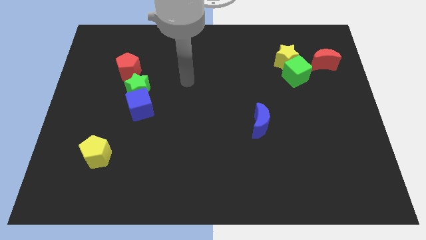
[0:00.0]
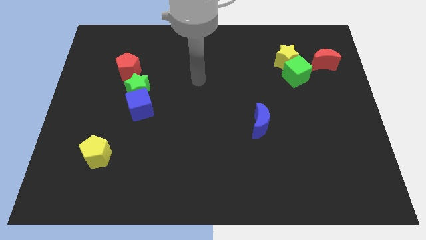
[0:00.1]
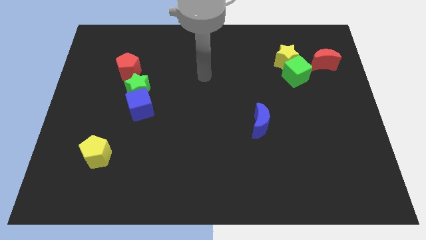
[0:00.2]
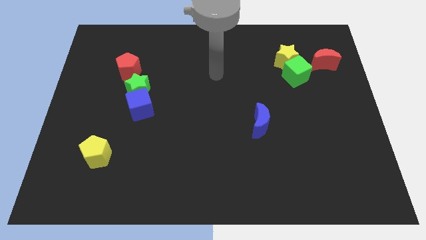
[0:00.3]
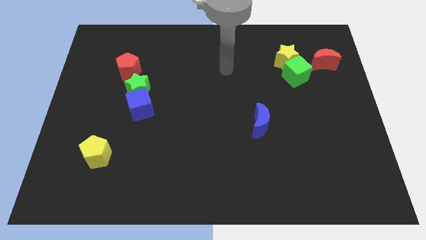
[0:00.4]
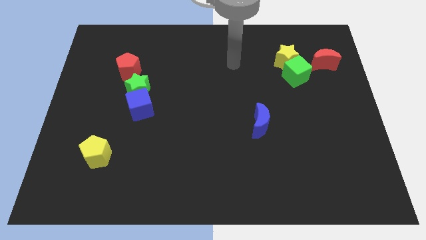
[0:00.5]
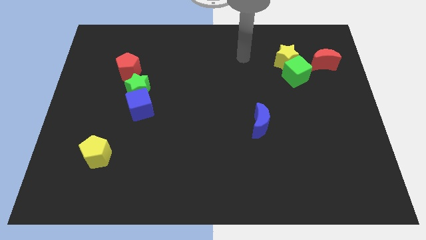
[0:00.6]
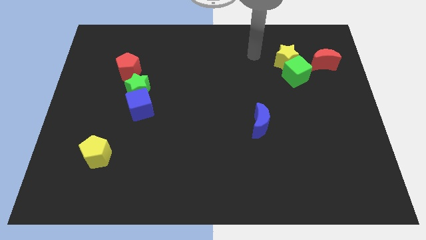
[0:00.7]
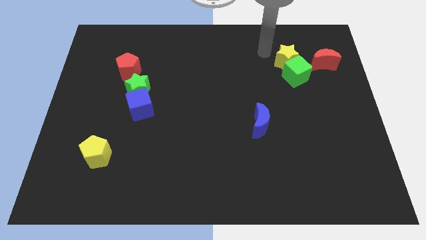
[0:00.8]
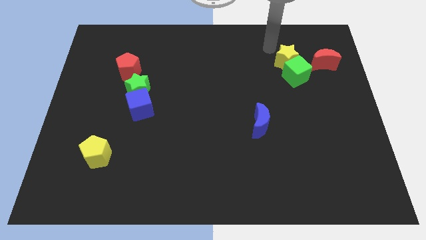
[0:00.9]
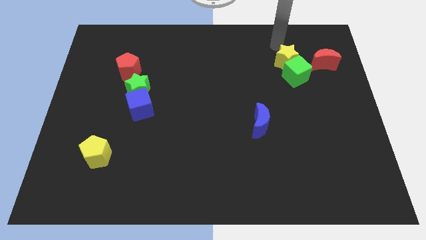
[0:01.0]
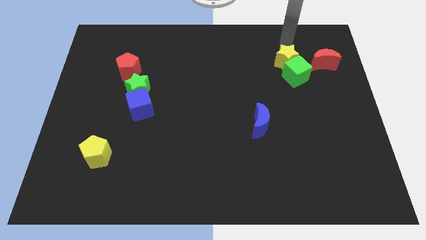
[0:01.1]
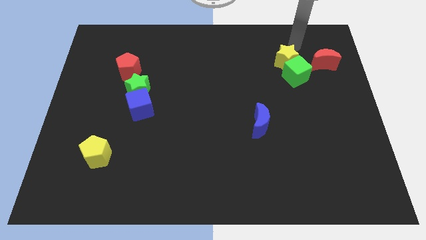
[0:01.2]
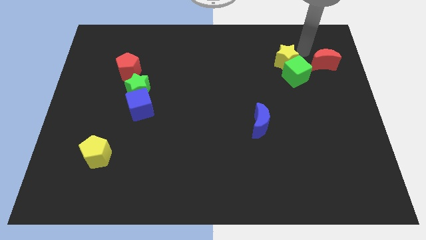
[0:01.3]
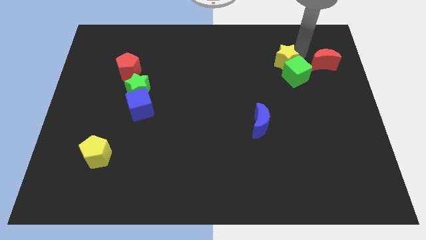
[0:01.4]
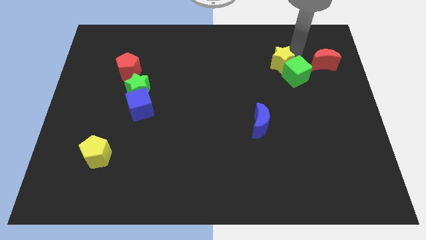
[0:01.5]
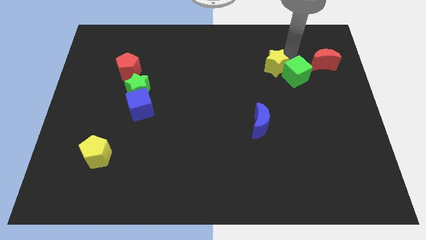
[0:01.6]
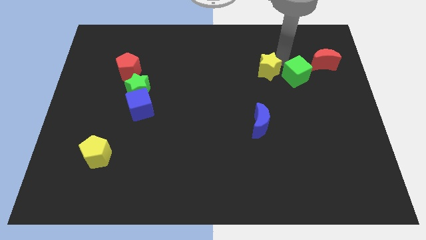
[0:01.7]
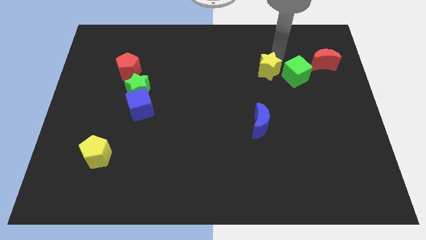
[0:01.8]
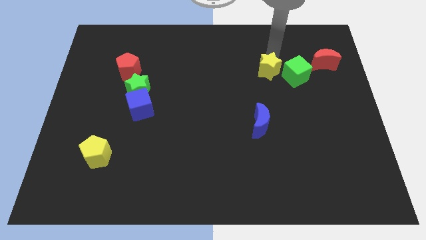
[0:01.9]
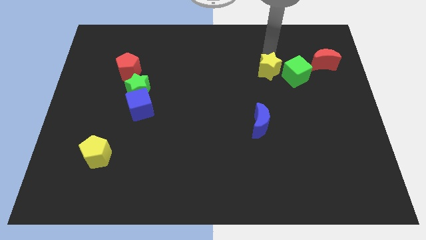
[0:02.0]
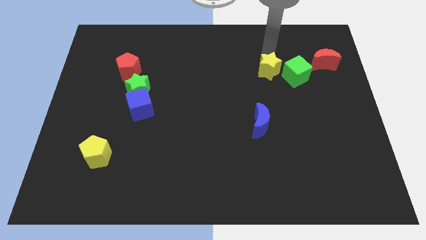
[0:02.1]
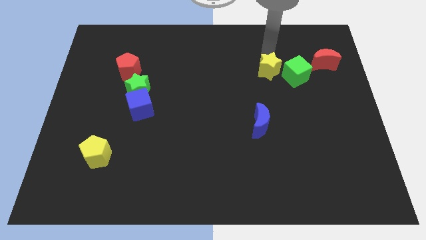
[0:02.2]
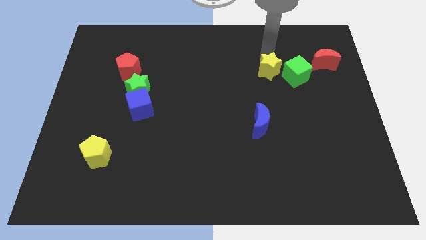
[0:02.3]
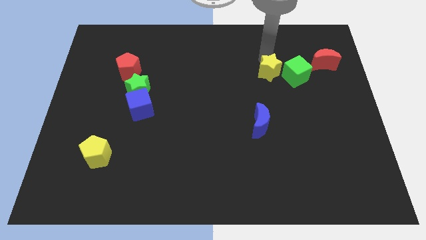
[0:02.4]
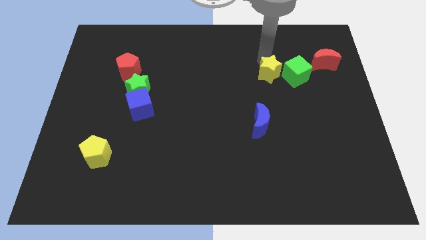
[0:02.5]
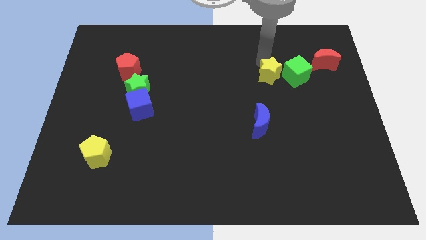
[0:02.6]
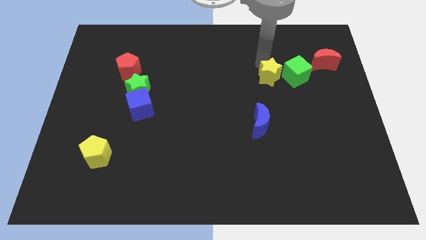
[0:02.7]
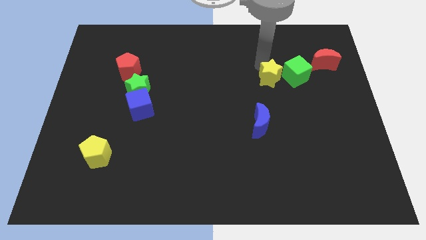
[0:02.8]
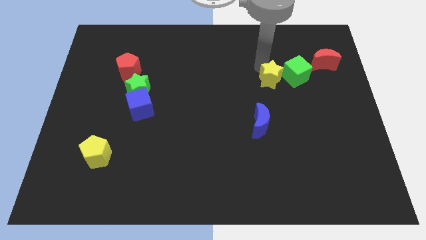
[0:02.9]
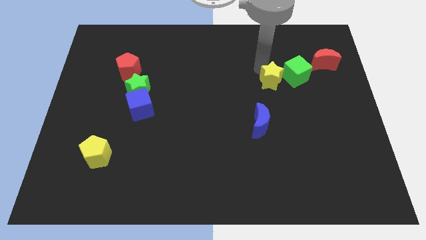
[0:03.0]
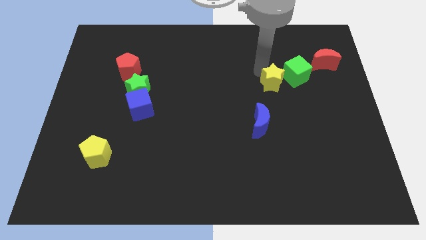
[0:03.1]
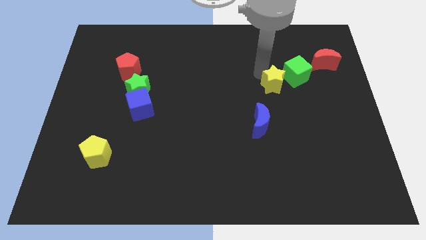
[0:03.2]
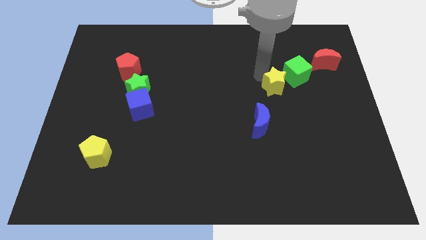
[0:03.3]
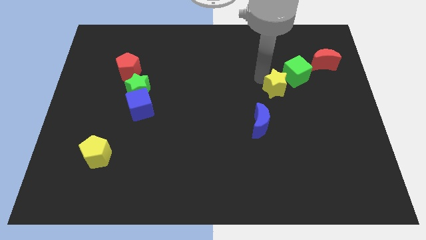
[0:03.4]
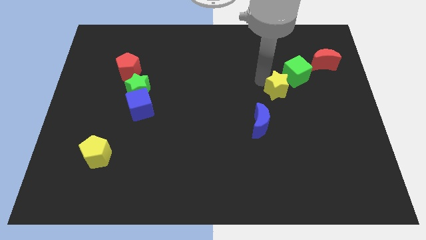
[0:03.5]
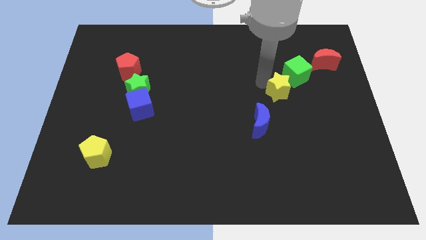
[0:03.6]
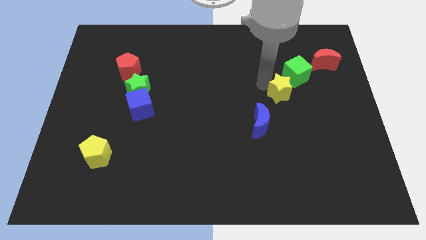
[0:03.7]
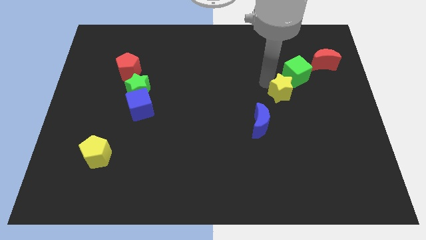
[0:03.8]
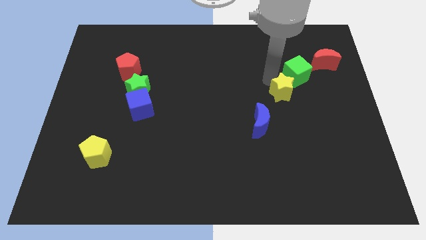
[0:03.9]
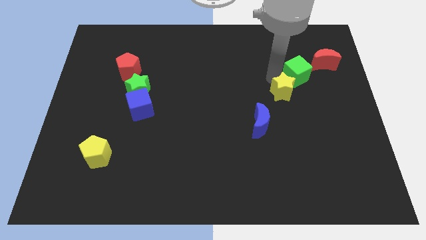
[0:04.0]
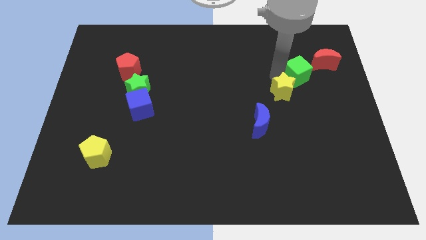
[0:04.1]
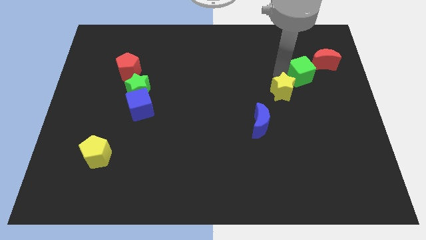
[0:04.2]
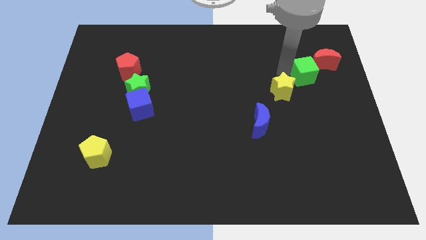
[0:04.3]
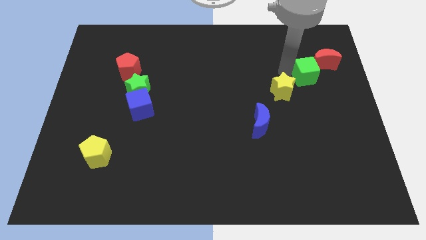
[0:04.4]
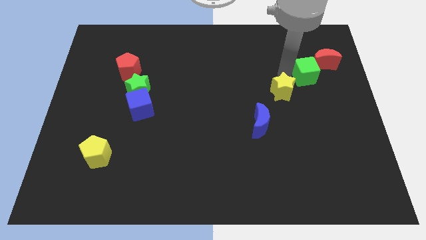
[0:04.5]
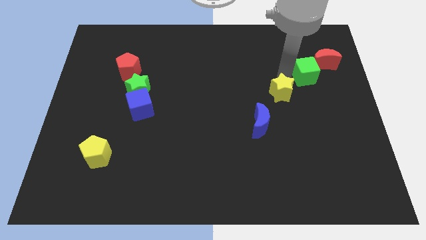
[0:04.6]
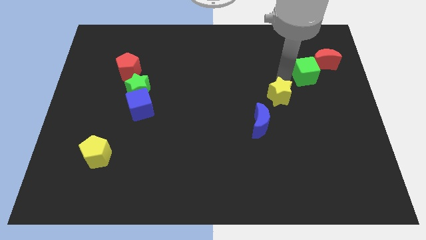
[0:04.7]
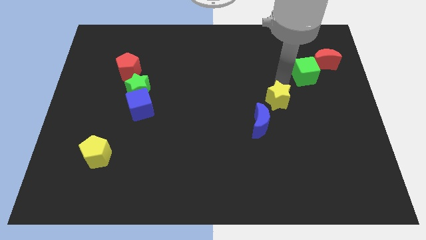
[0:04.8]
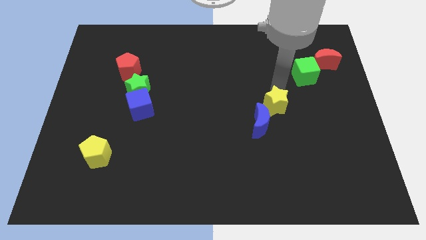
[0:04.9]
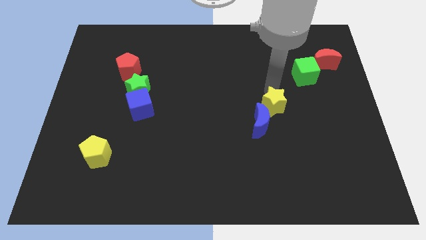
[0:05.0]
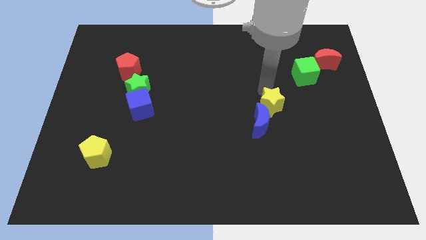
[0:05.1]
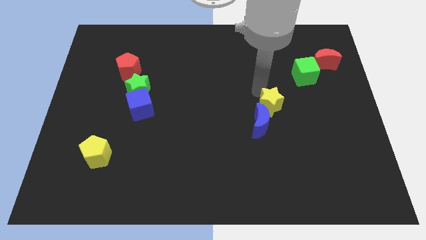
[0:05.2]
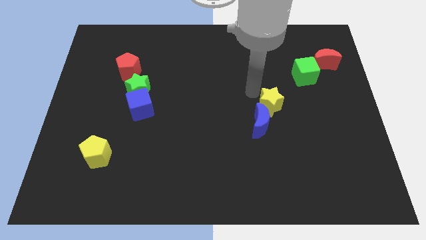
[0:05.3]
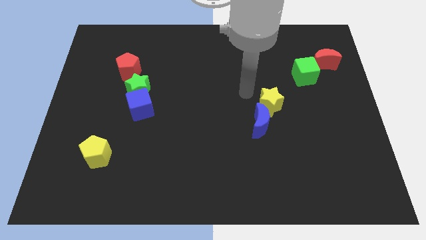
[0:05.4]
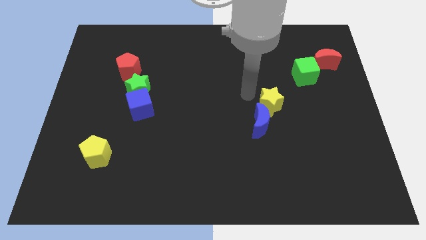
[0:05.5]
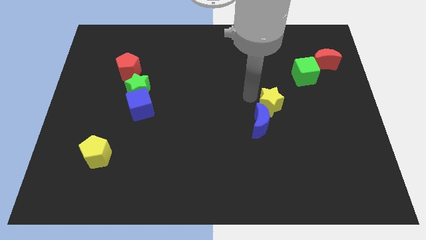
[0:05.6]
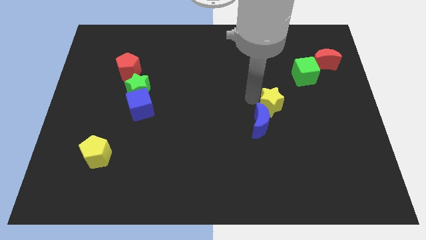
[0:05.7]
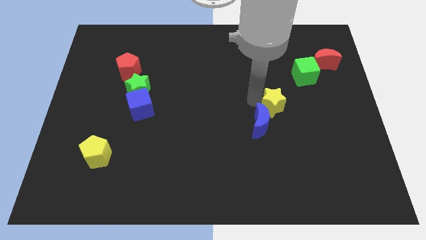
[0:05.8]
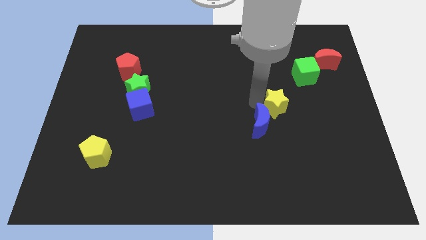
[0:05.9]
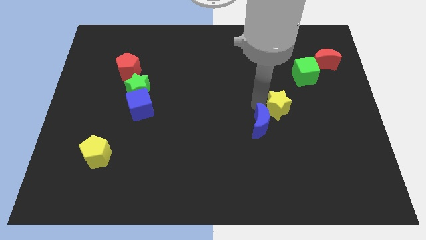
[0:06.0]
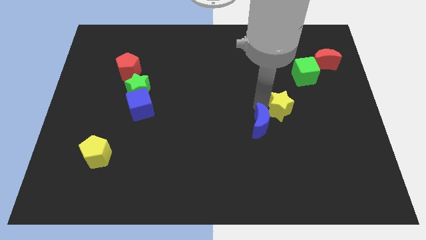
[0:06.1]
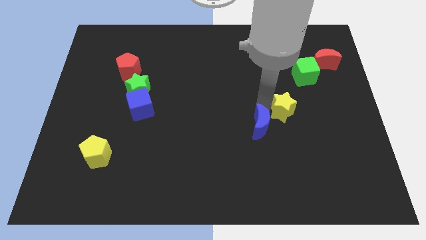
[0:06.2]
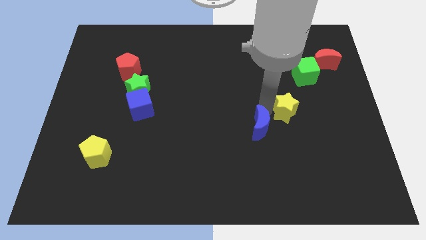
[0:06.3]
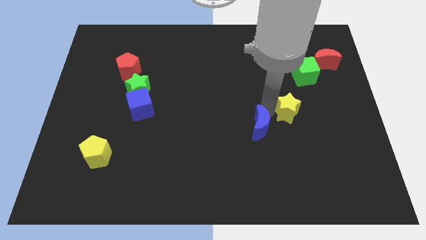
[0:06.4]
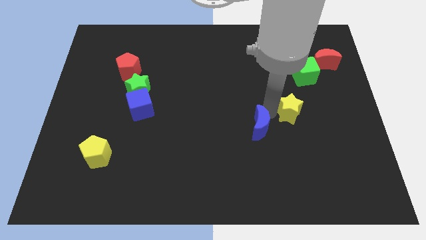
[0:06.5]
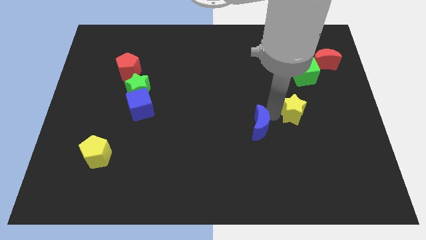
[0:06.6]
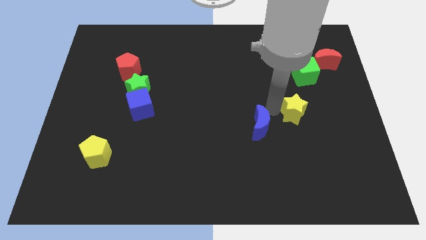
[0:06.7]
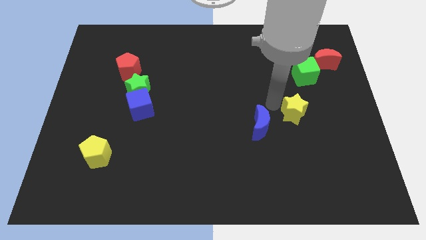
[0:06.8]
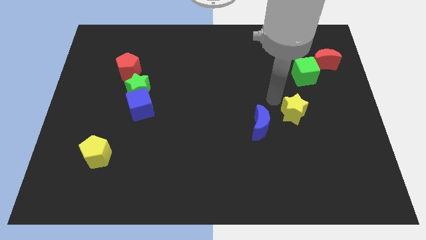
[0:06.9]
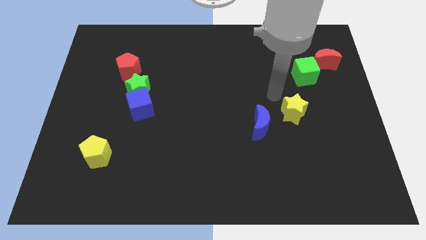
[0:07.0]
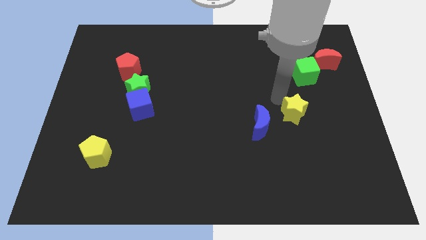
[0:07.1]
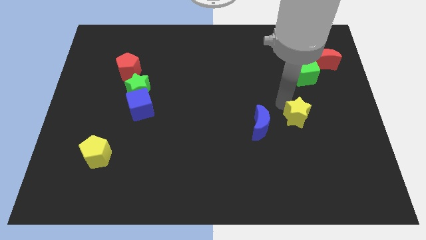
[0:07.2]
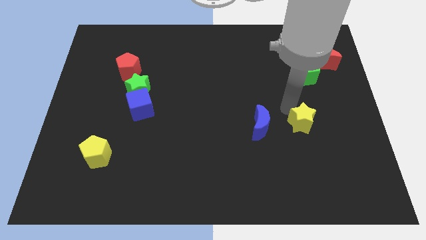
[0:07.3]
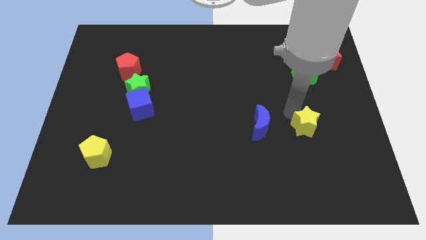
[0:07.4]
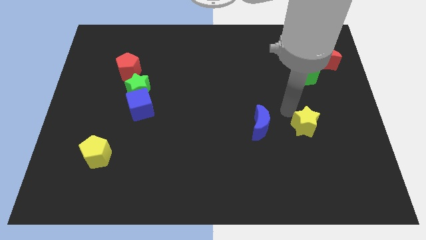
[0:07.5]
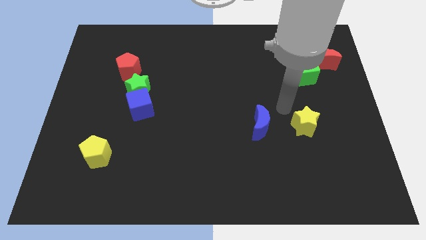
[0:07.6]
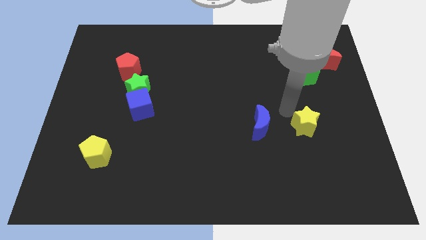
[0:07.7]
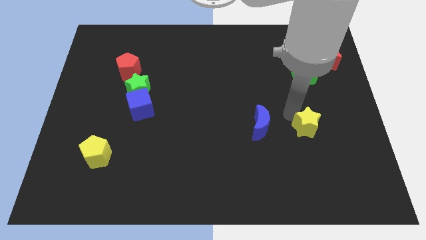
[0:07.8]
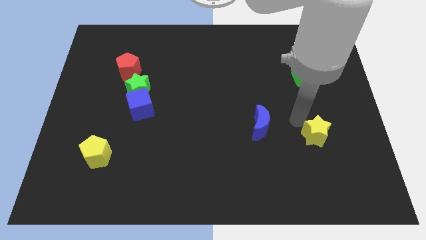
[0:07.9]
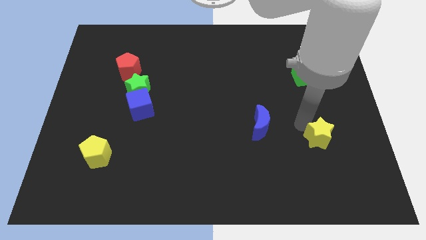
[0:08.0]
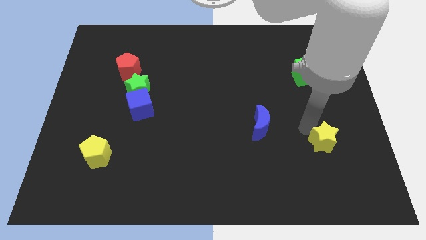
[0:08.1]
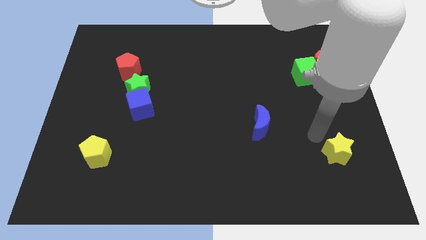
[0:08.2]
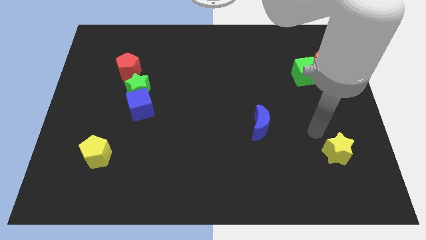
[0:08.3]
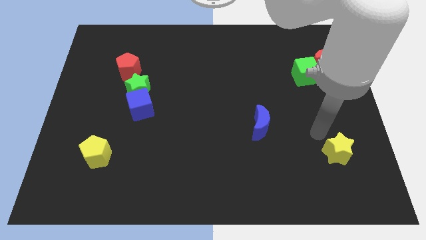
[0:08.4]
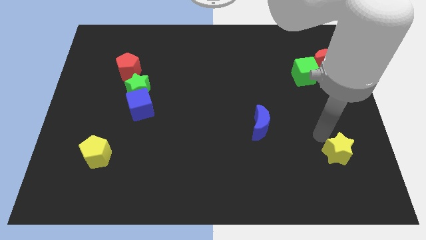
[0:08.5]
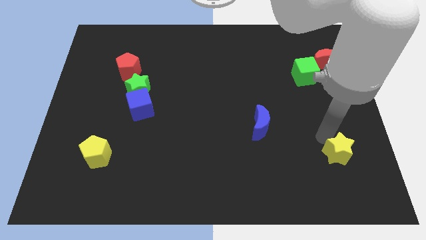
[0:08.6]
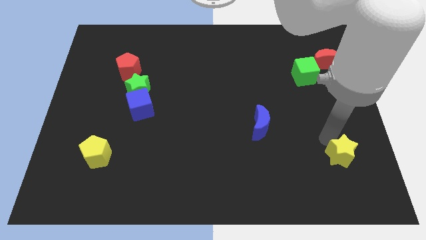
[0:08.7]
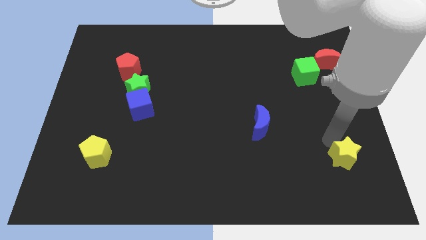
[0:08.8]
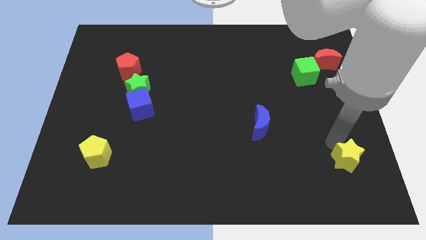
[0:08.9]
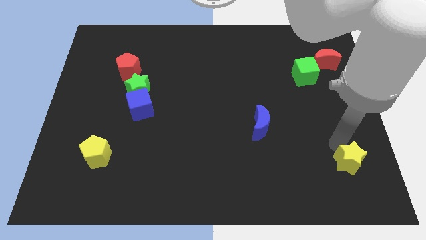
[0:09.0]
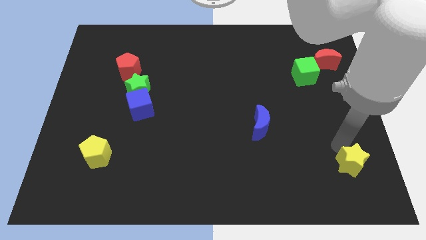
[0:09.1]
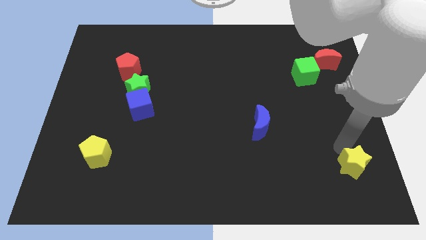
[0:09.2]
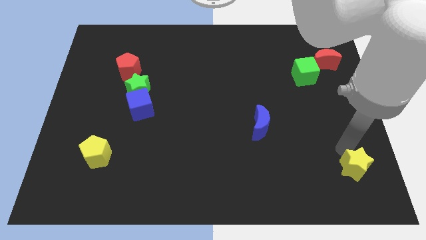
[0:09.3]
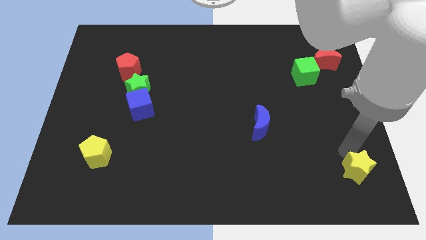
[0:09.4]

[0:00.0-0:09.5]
move the yellow star to the bottom right
